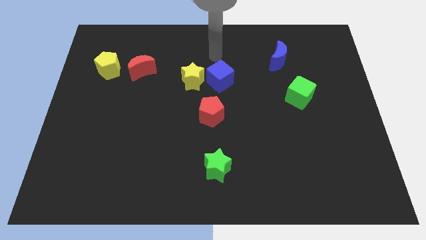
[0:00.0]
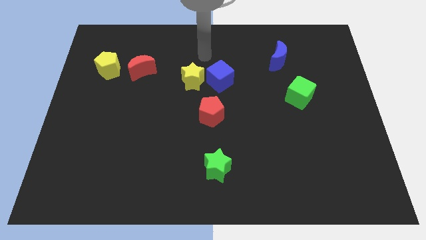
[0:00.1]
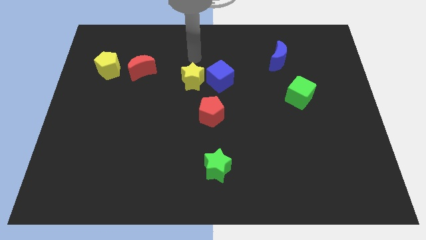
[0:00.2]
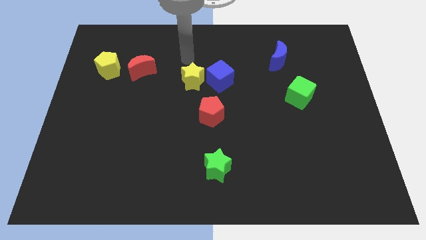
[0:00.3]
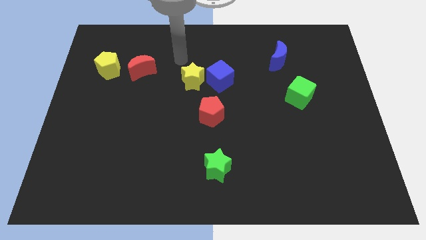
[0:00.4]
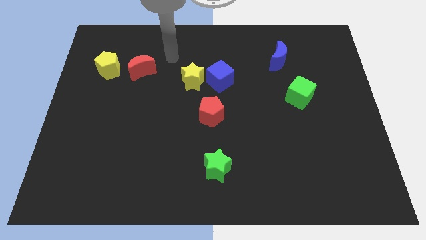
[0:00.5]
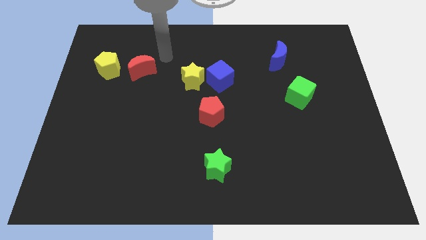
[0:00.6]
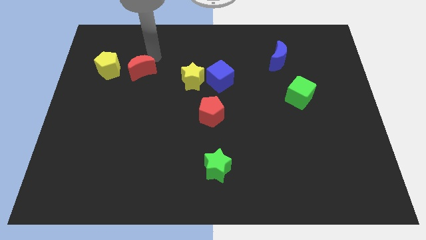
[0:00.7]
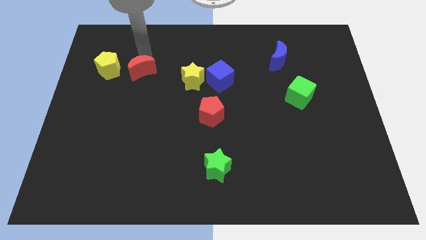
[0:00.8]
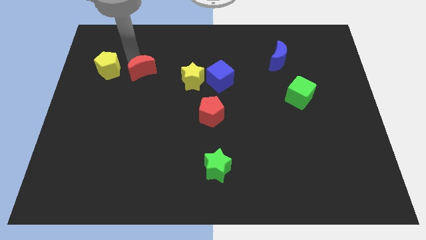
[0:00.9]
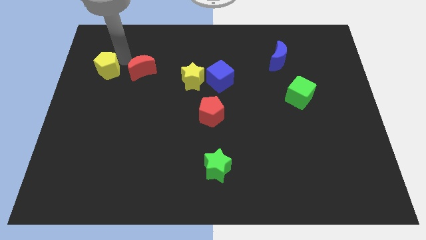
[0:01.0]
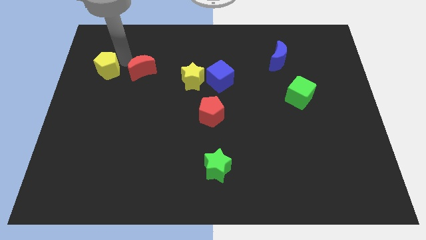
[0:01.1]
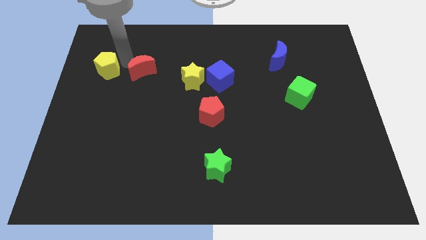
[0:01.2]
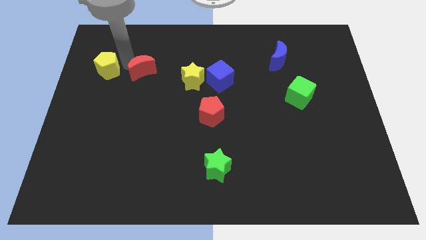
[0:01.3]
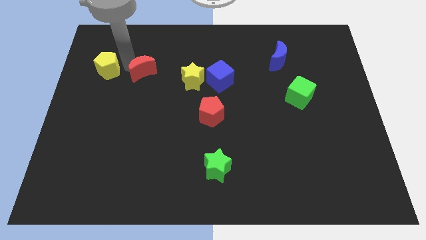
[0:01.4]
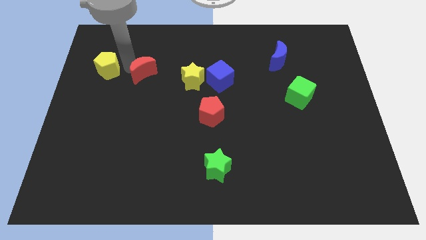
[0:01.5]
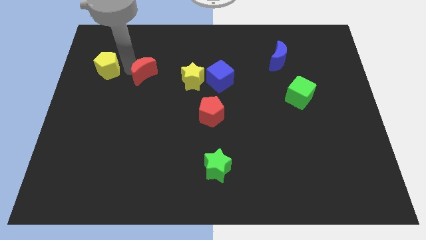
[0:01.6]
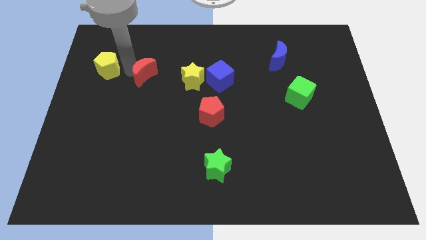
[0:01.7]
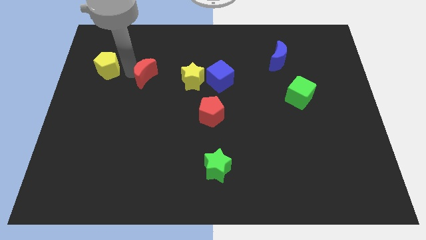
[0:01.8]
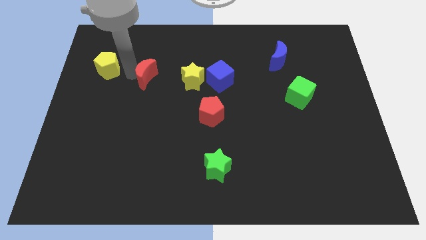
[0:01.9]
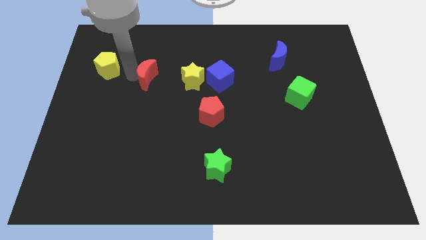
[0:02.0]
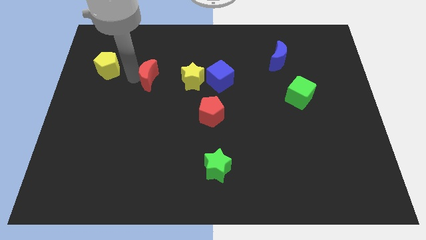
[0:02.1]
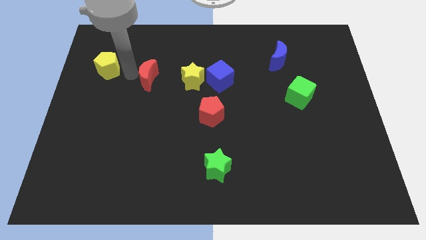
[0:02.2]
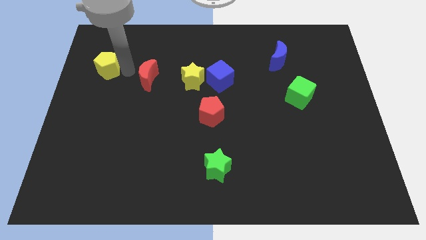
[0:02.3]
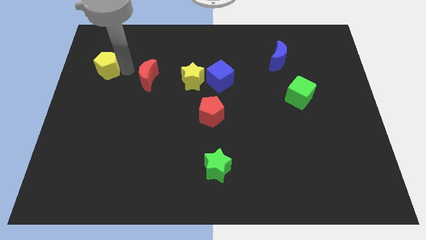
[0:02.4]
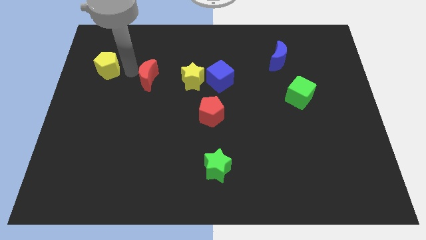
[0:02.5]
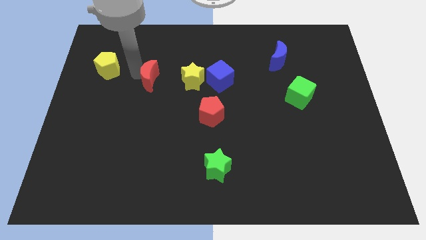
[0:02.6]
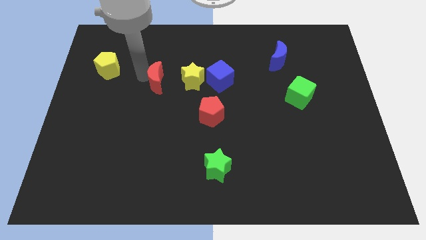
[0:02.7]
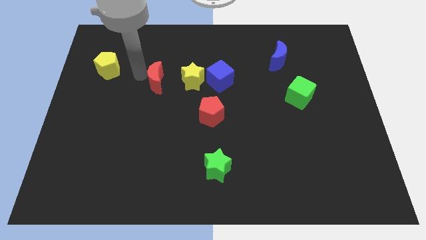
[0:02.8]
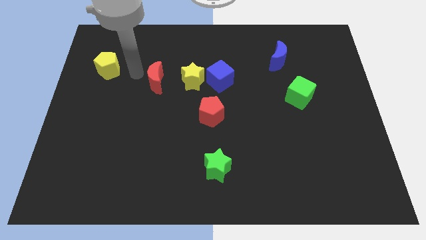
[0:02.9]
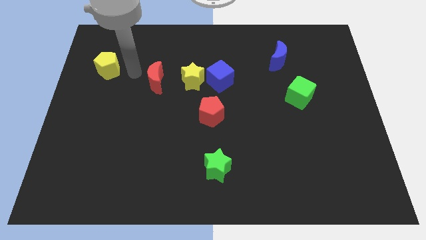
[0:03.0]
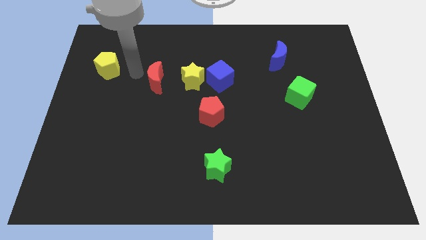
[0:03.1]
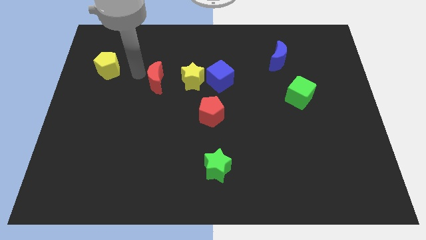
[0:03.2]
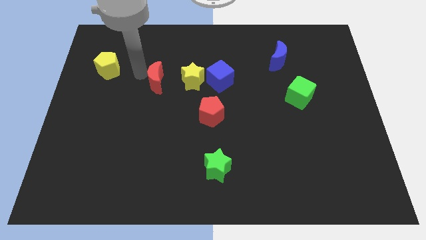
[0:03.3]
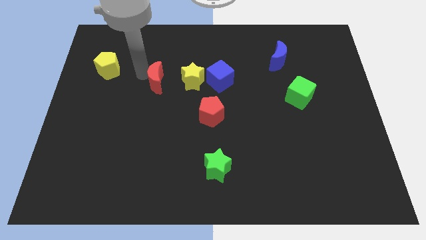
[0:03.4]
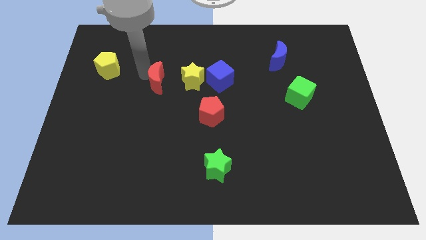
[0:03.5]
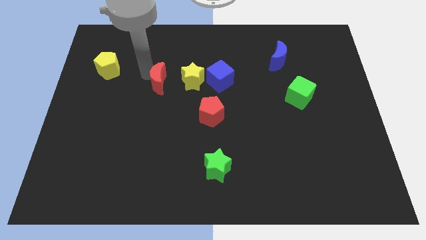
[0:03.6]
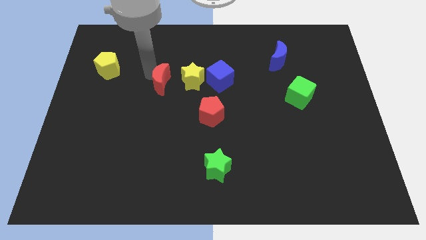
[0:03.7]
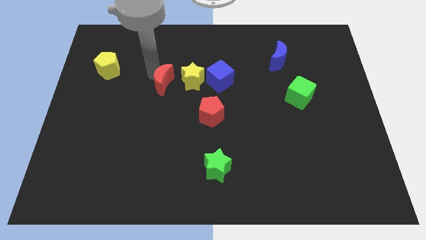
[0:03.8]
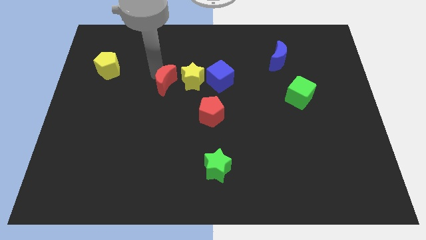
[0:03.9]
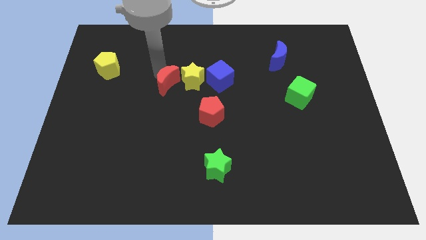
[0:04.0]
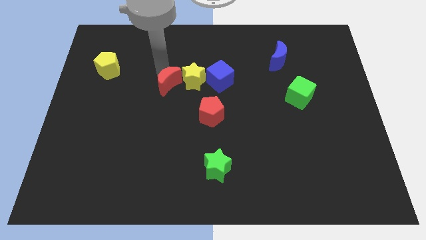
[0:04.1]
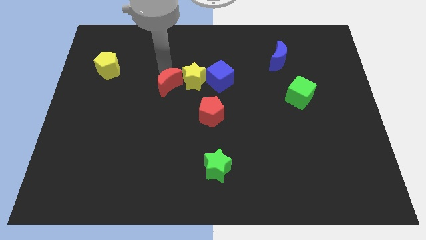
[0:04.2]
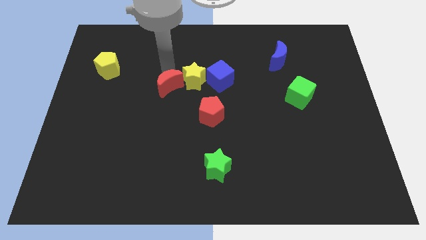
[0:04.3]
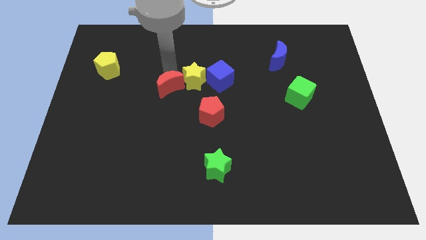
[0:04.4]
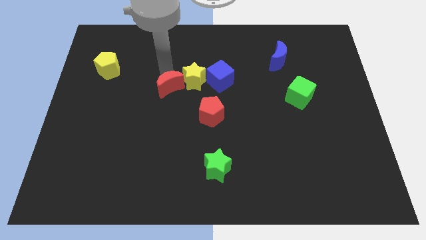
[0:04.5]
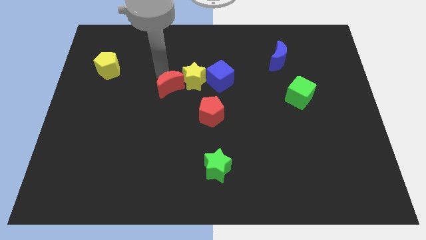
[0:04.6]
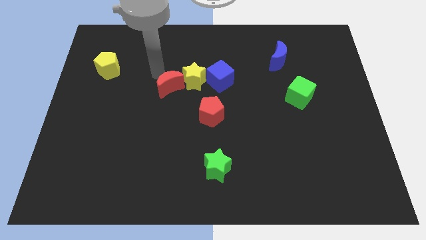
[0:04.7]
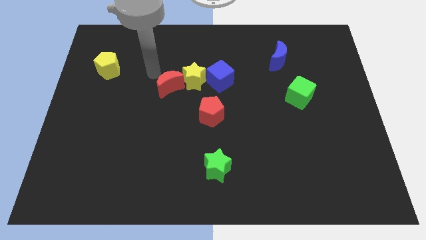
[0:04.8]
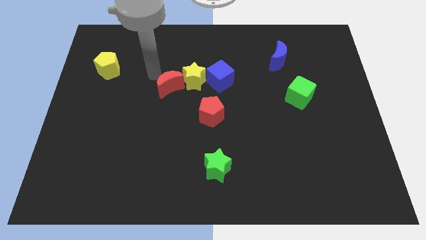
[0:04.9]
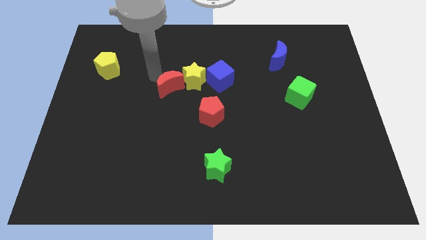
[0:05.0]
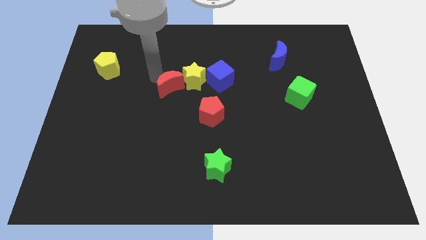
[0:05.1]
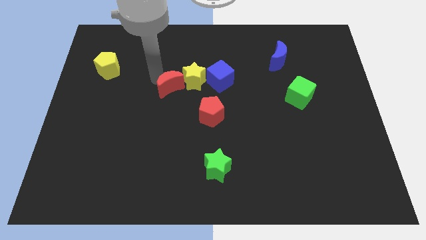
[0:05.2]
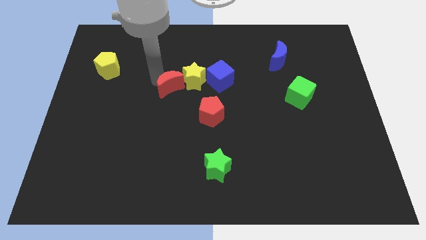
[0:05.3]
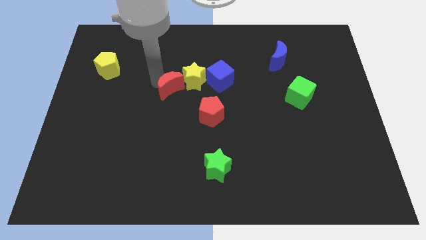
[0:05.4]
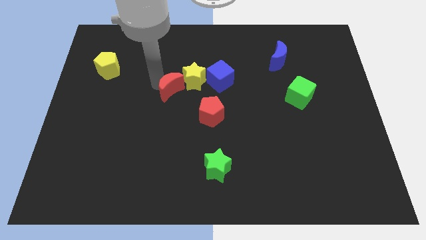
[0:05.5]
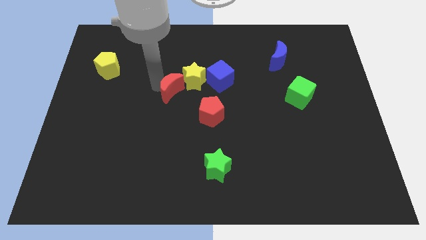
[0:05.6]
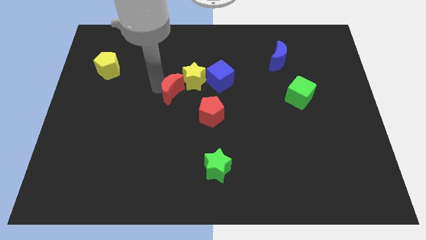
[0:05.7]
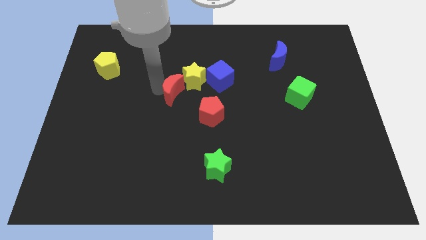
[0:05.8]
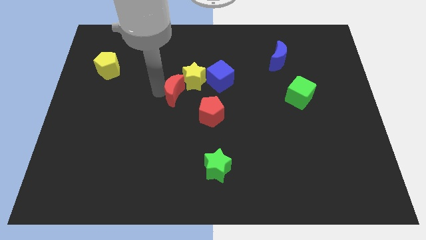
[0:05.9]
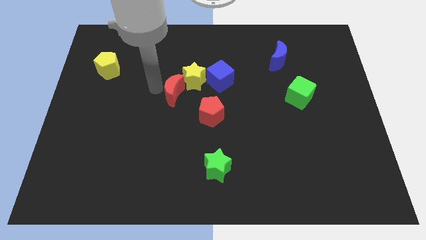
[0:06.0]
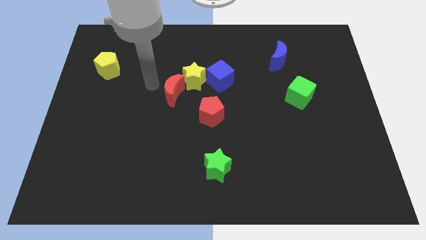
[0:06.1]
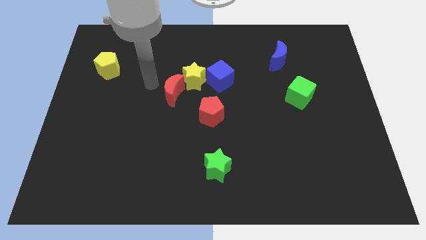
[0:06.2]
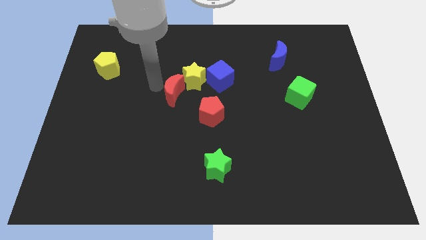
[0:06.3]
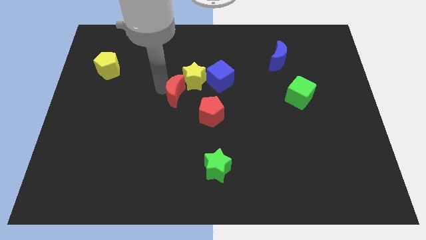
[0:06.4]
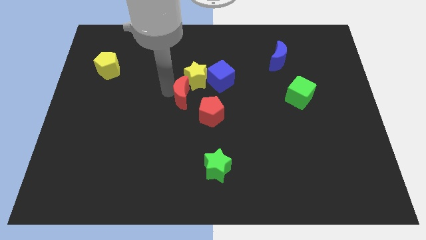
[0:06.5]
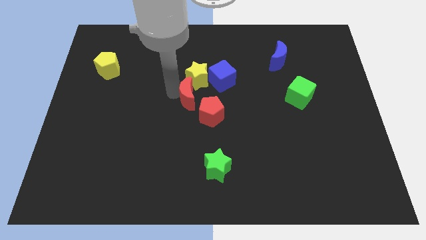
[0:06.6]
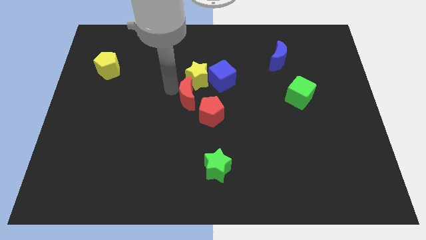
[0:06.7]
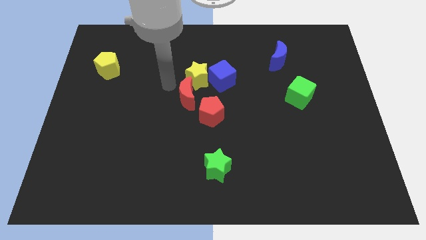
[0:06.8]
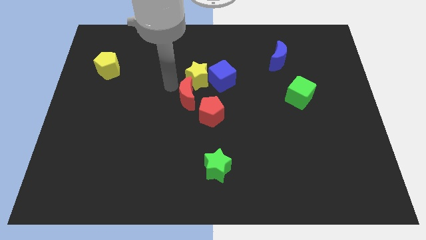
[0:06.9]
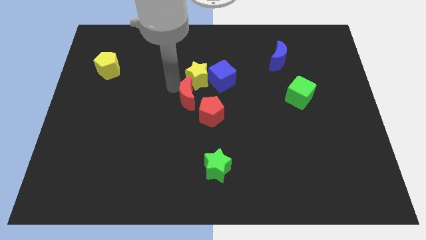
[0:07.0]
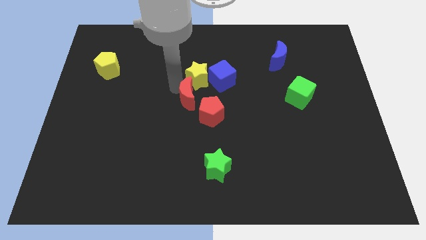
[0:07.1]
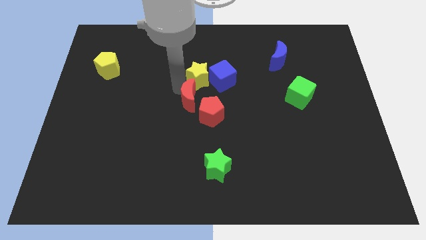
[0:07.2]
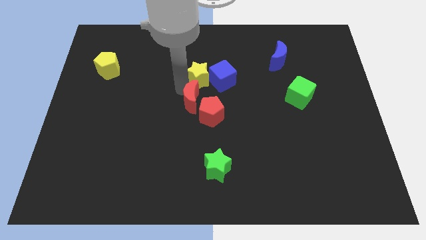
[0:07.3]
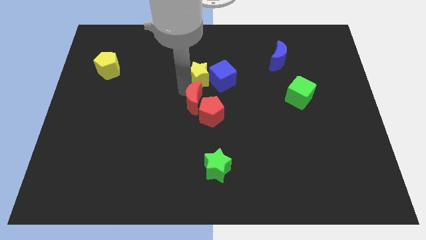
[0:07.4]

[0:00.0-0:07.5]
put the red moon close to the red pentagon
